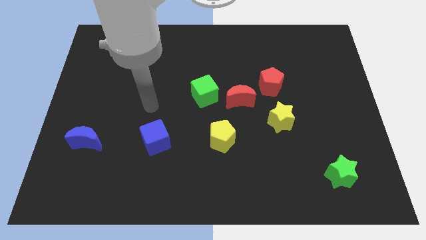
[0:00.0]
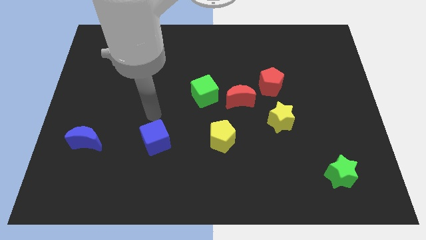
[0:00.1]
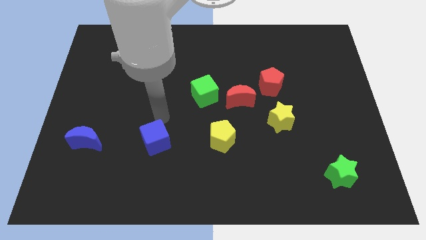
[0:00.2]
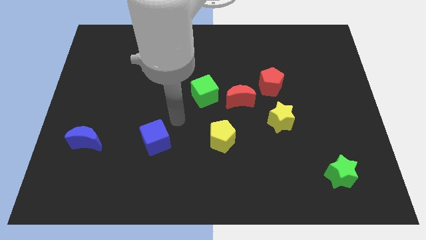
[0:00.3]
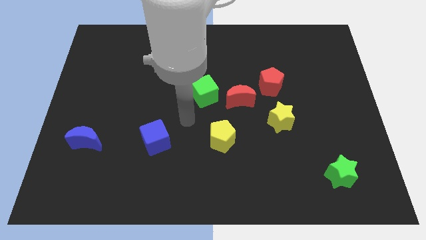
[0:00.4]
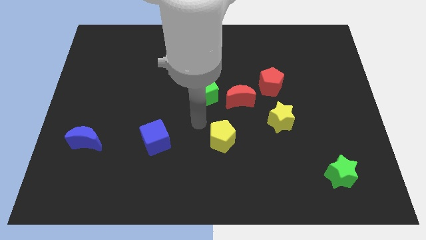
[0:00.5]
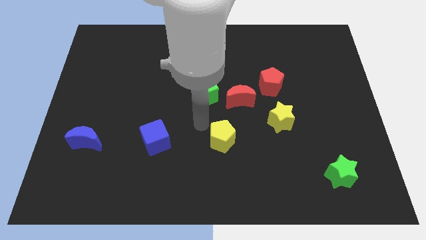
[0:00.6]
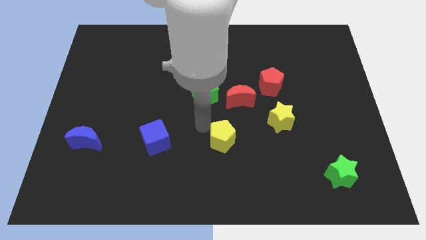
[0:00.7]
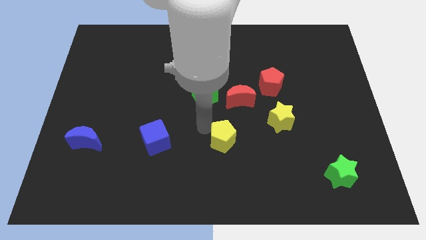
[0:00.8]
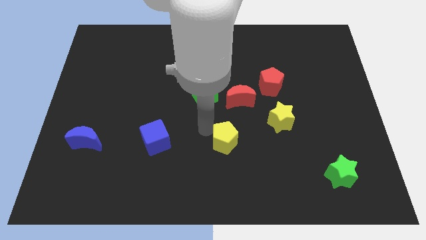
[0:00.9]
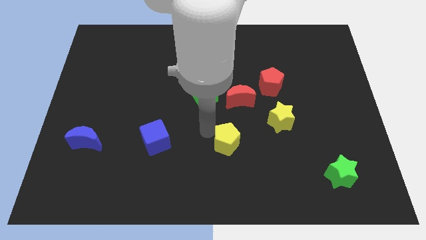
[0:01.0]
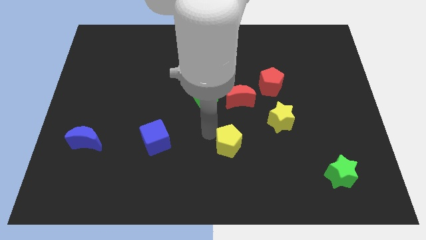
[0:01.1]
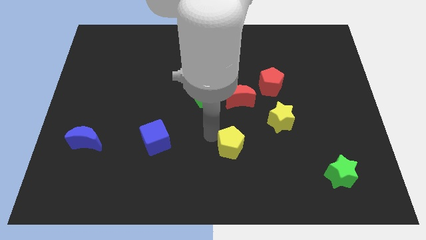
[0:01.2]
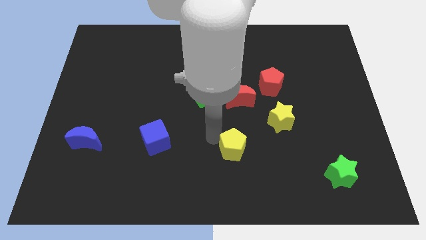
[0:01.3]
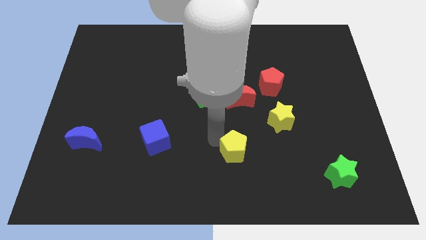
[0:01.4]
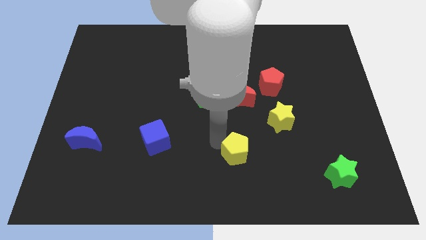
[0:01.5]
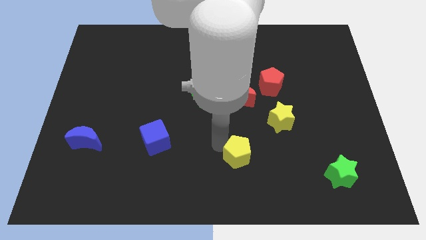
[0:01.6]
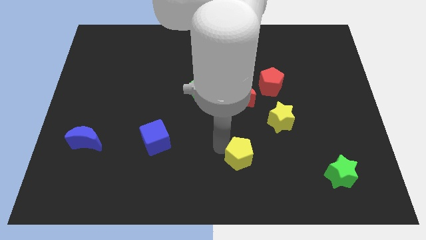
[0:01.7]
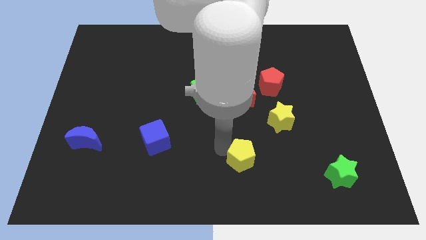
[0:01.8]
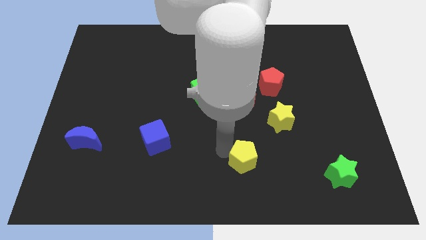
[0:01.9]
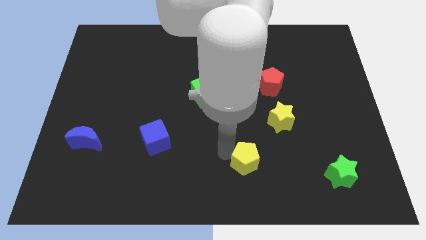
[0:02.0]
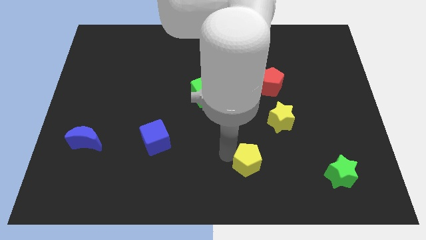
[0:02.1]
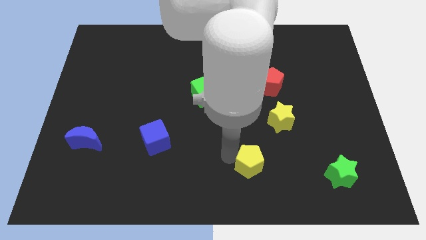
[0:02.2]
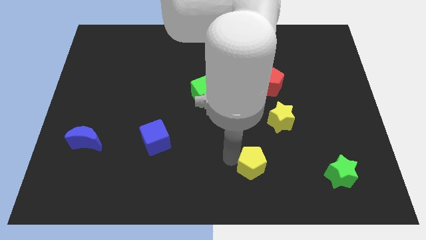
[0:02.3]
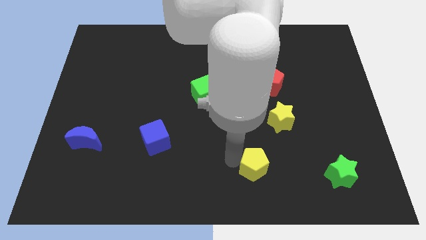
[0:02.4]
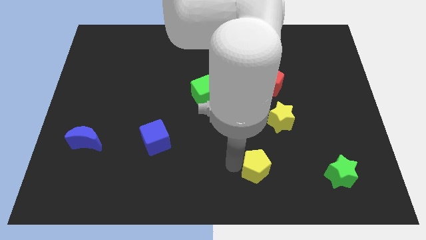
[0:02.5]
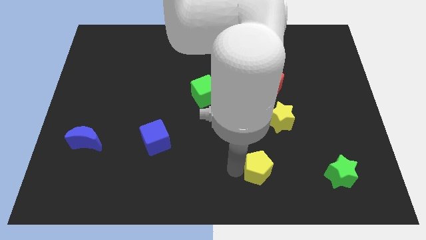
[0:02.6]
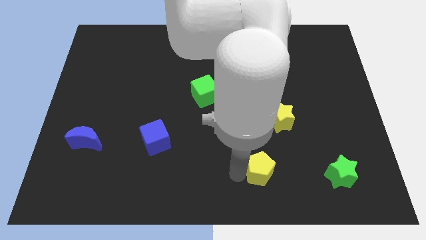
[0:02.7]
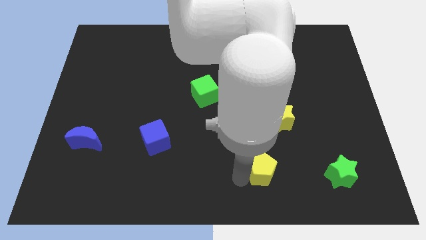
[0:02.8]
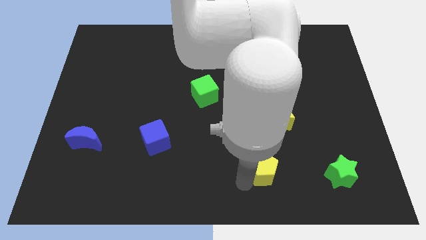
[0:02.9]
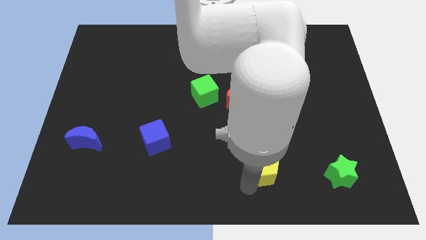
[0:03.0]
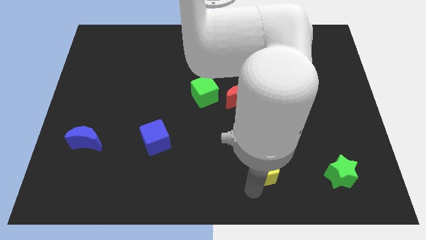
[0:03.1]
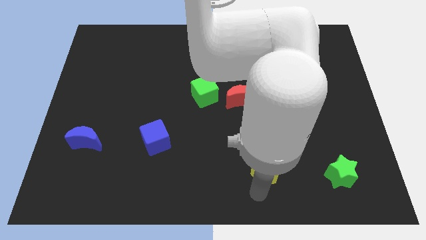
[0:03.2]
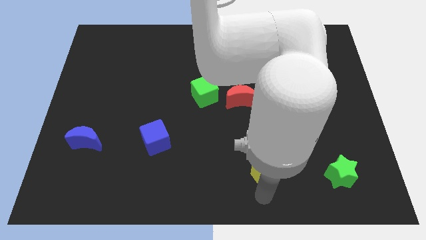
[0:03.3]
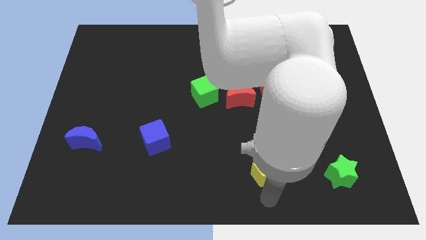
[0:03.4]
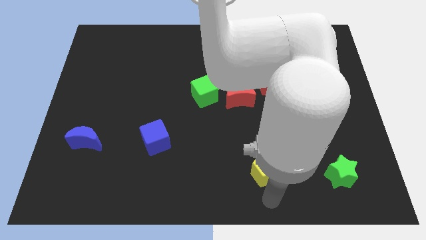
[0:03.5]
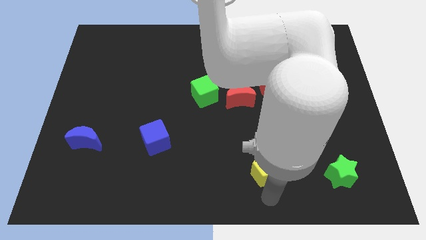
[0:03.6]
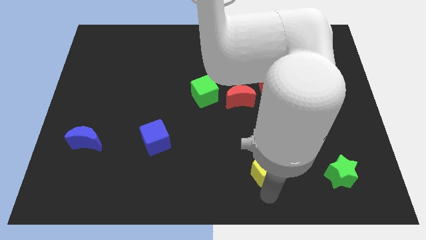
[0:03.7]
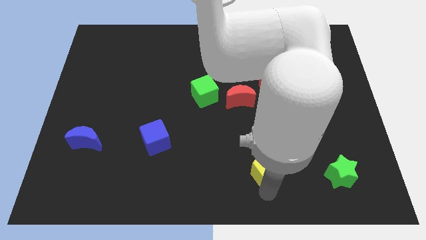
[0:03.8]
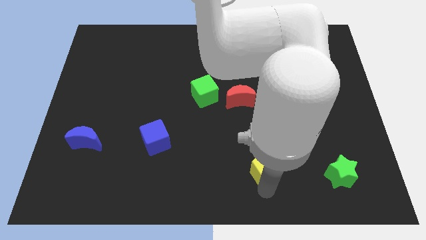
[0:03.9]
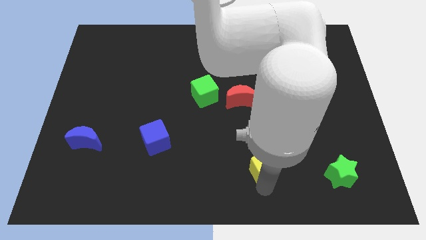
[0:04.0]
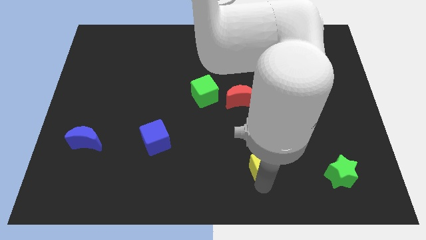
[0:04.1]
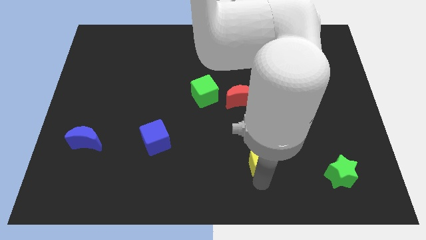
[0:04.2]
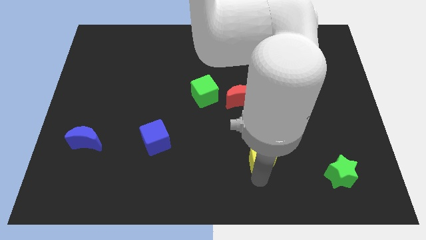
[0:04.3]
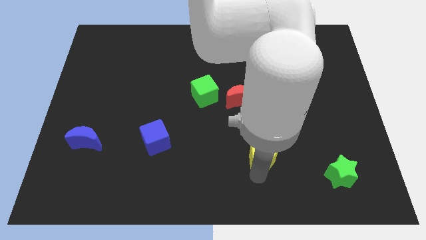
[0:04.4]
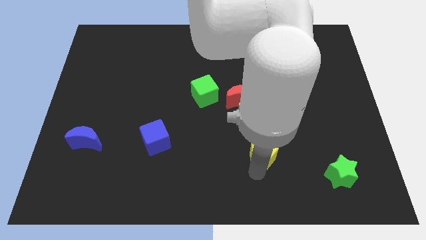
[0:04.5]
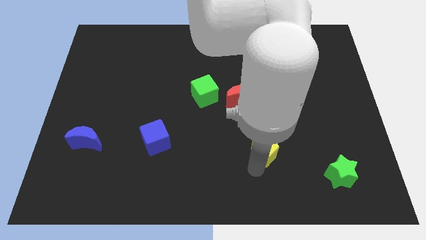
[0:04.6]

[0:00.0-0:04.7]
push the yellow pentagon to the bottom of the yellow star

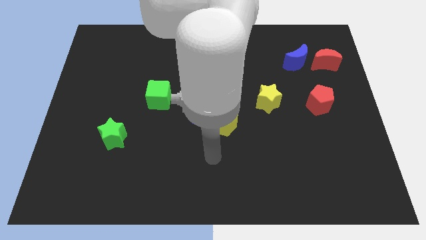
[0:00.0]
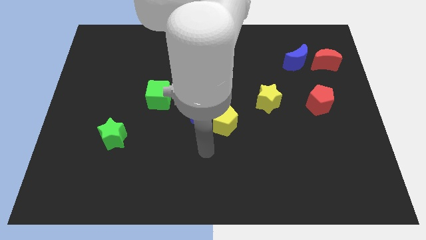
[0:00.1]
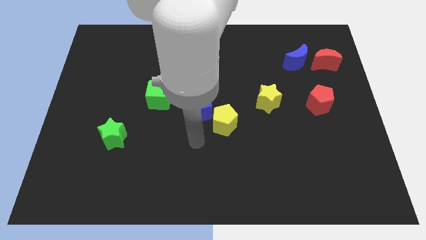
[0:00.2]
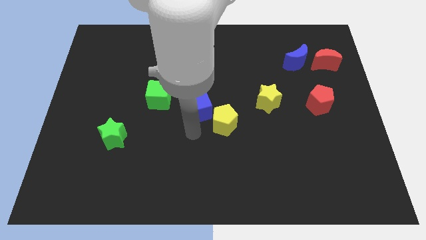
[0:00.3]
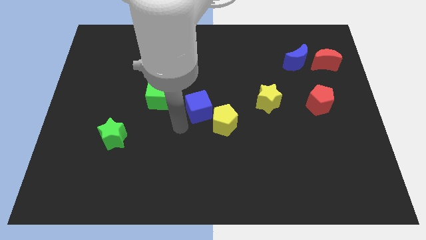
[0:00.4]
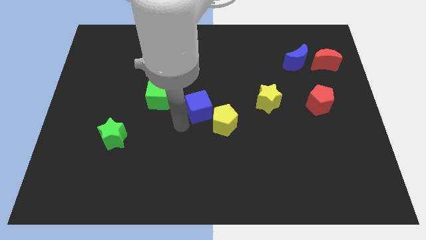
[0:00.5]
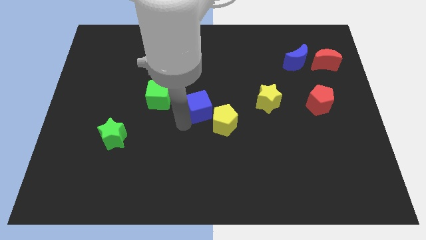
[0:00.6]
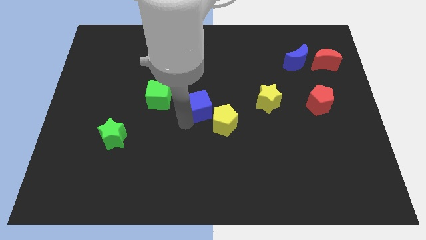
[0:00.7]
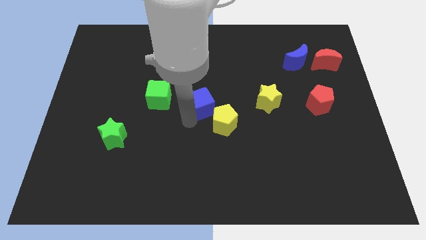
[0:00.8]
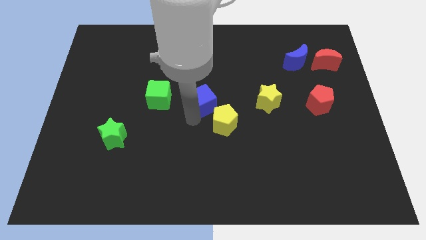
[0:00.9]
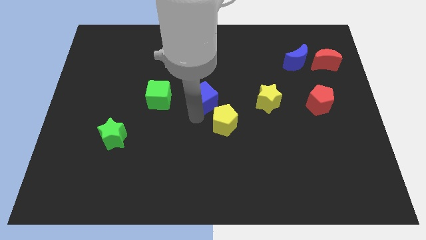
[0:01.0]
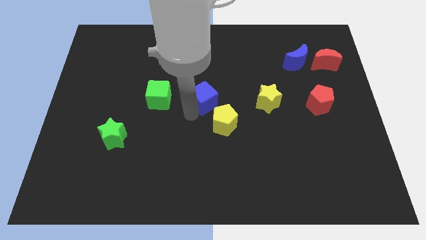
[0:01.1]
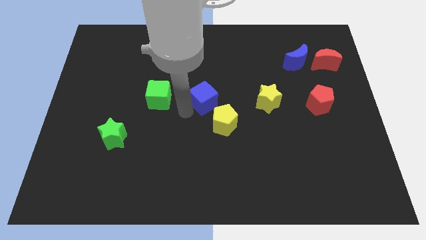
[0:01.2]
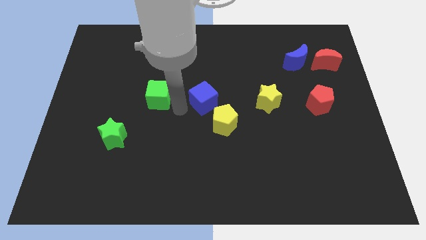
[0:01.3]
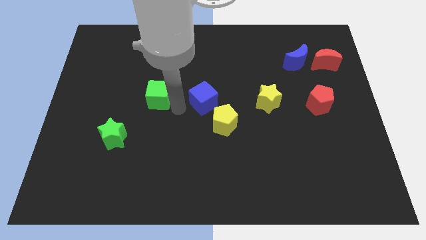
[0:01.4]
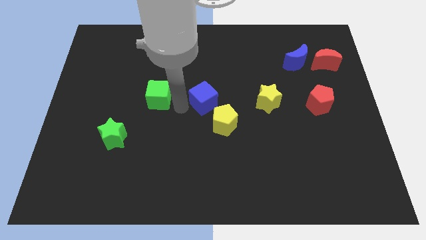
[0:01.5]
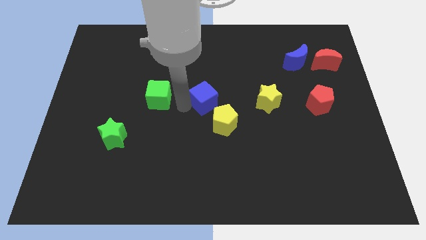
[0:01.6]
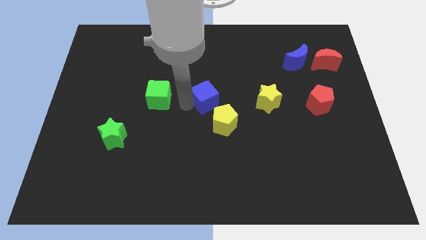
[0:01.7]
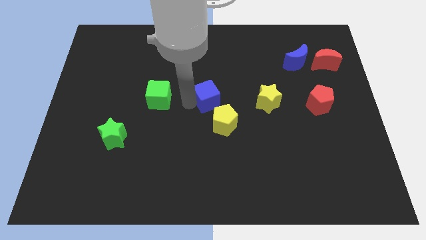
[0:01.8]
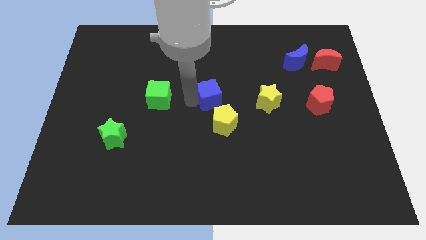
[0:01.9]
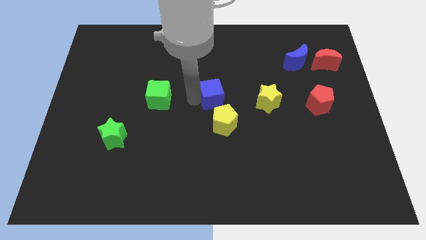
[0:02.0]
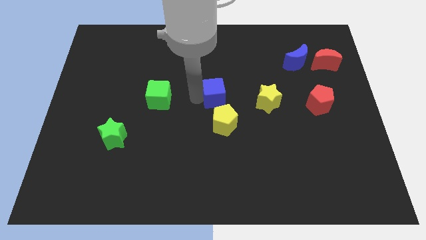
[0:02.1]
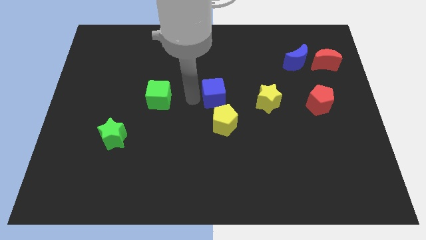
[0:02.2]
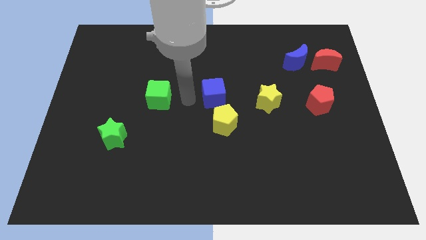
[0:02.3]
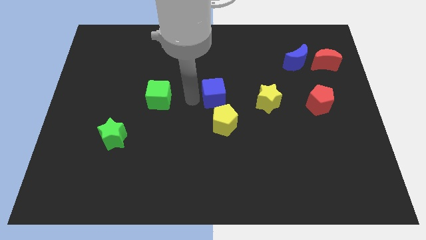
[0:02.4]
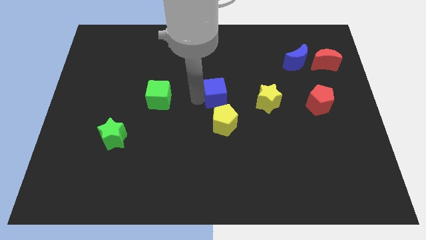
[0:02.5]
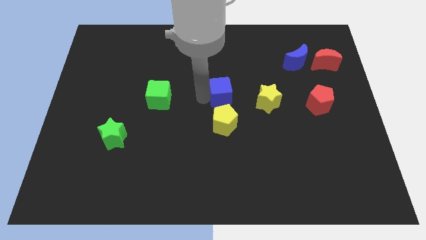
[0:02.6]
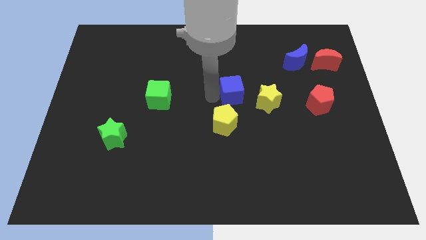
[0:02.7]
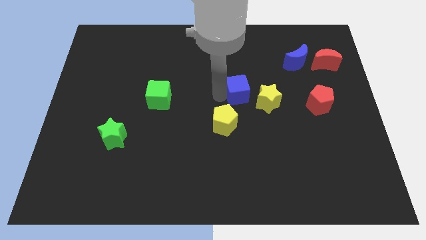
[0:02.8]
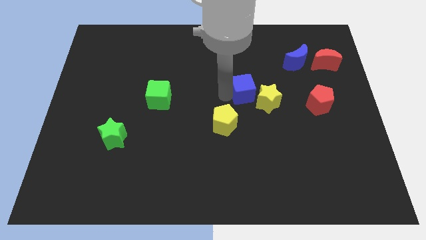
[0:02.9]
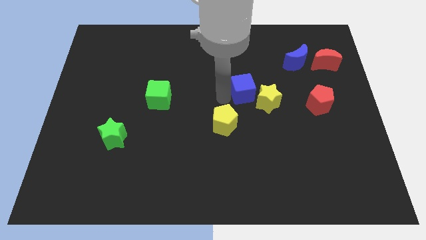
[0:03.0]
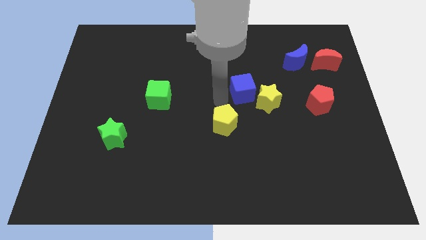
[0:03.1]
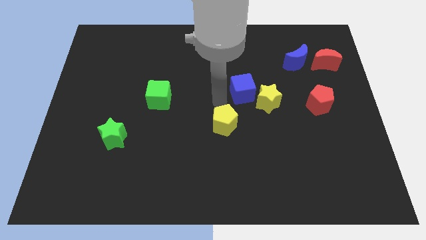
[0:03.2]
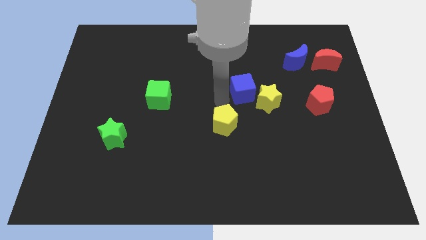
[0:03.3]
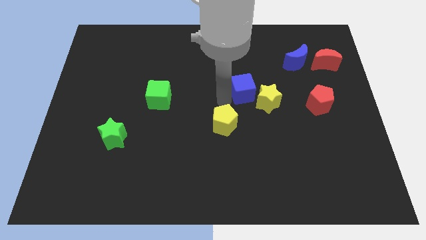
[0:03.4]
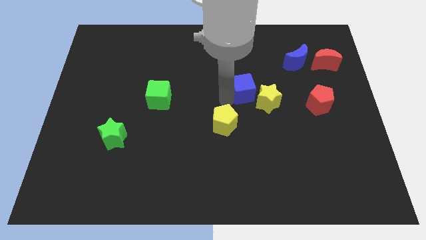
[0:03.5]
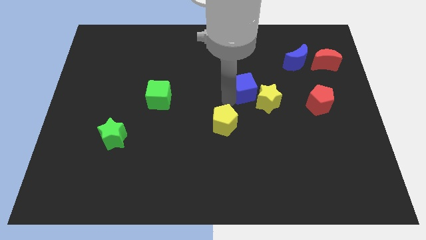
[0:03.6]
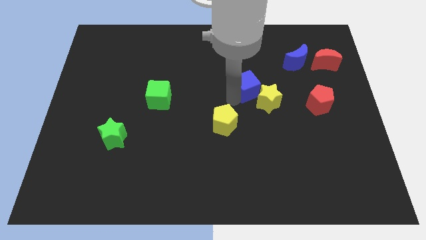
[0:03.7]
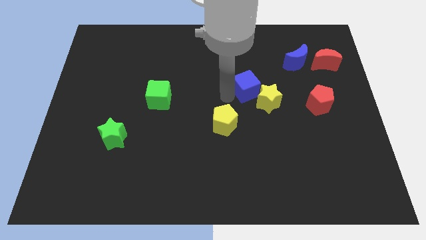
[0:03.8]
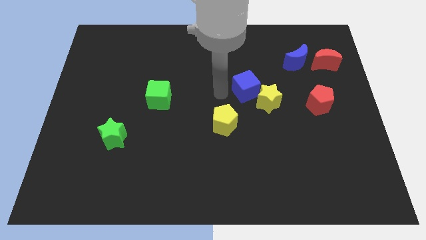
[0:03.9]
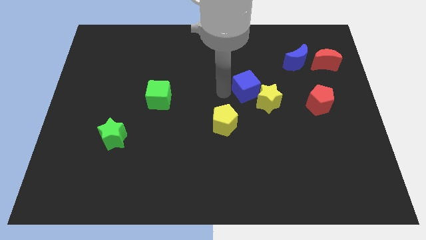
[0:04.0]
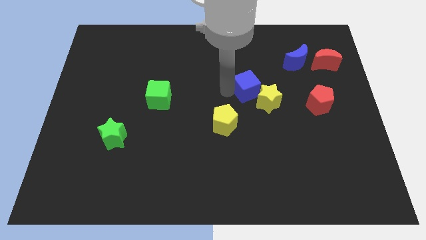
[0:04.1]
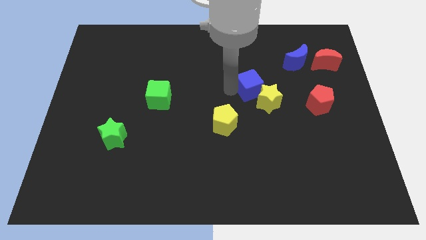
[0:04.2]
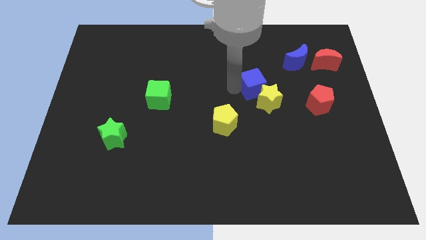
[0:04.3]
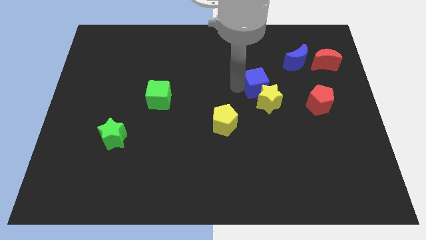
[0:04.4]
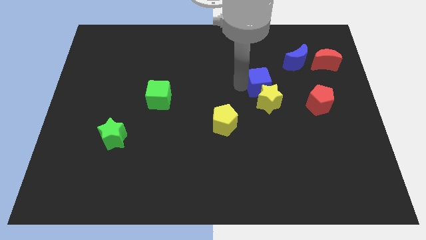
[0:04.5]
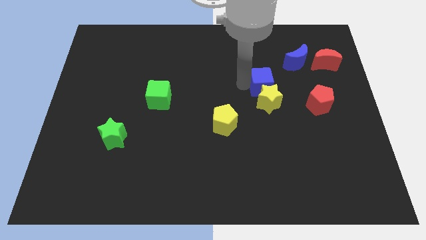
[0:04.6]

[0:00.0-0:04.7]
slide the blue cube diagonally up and to the right of the yellow star
